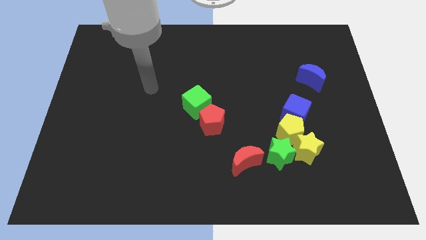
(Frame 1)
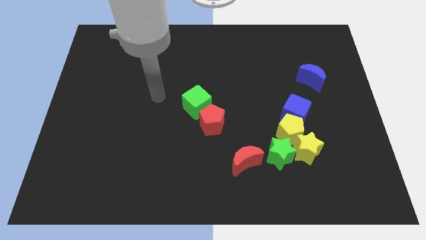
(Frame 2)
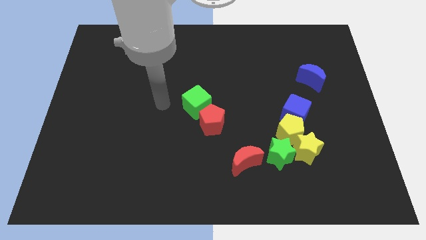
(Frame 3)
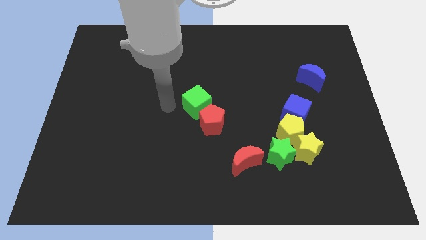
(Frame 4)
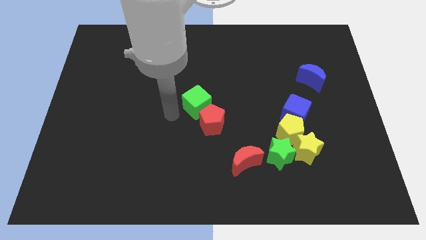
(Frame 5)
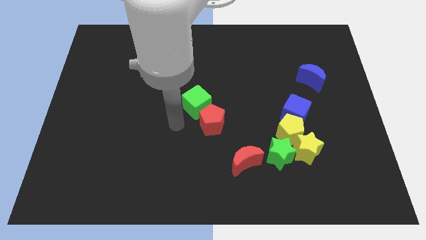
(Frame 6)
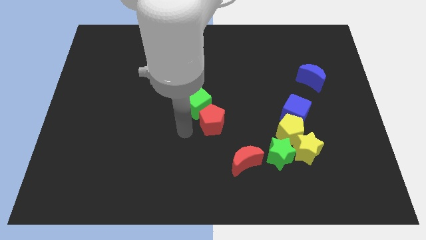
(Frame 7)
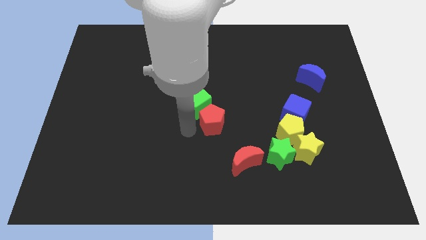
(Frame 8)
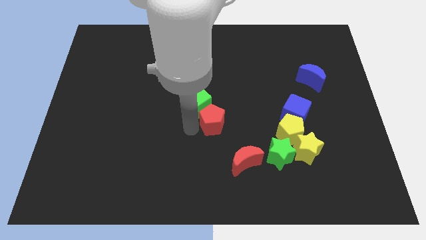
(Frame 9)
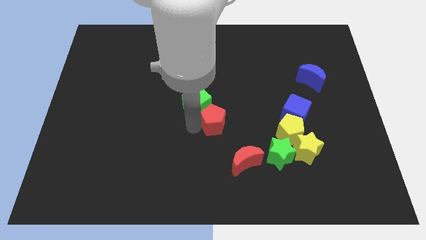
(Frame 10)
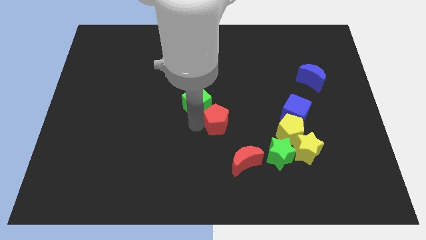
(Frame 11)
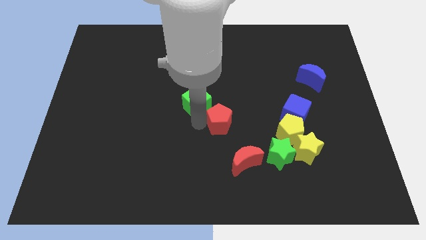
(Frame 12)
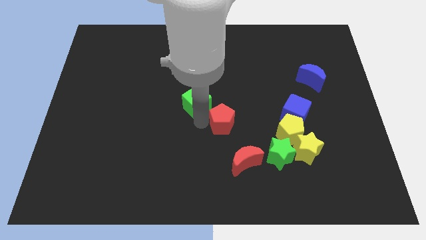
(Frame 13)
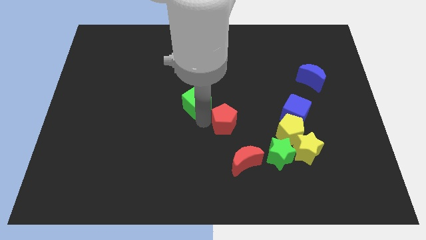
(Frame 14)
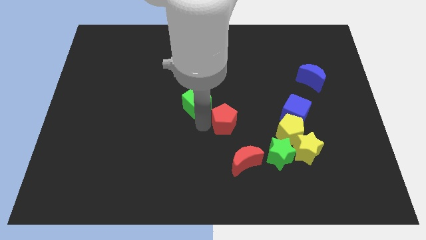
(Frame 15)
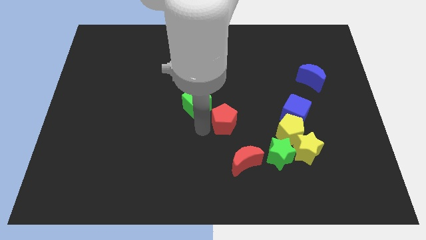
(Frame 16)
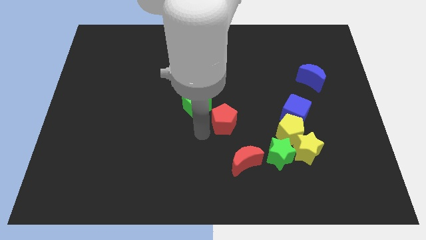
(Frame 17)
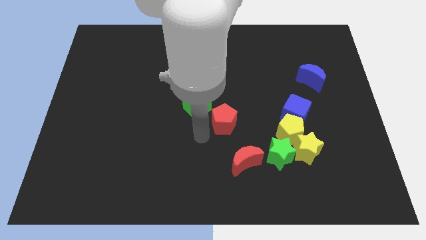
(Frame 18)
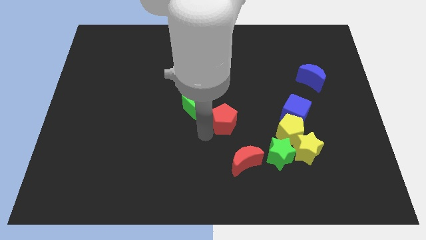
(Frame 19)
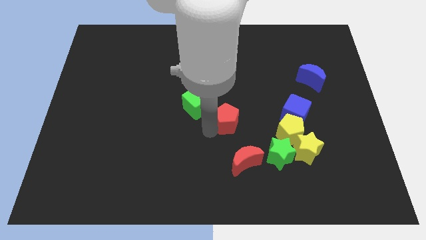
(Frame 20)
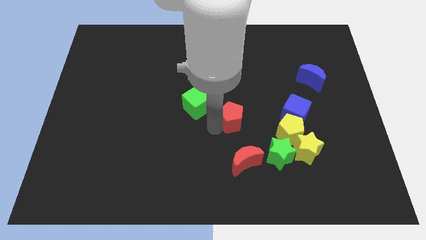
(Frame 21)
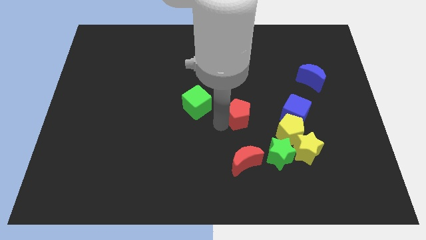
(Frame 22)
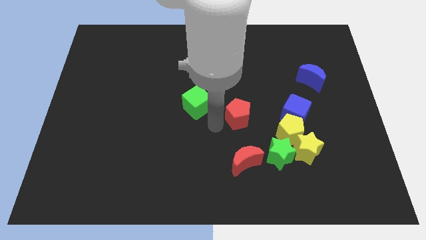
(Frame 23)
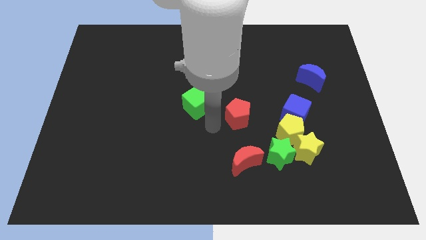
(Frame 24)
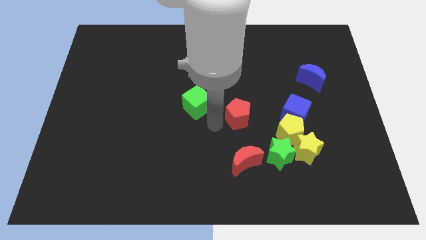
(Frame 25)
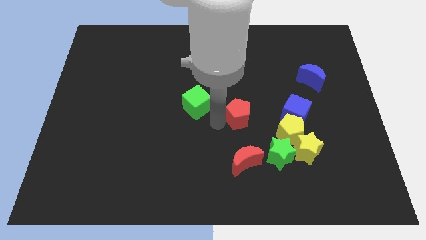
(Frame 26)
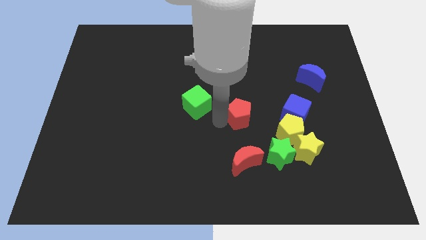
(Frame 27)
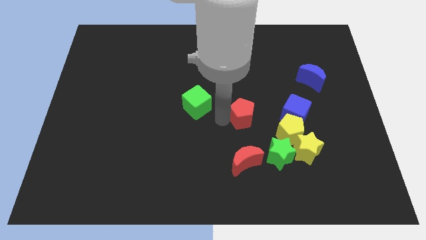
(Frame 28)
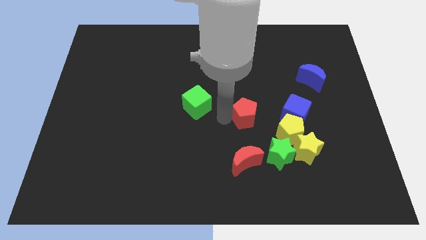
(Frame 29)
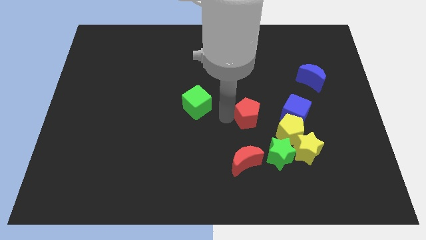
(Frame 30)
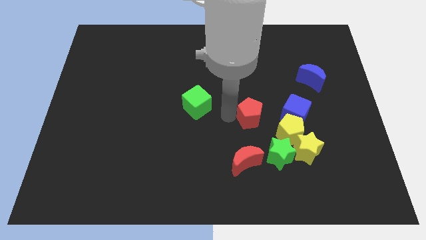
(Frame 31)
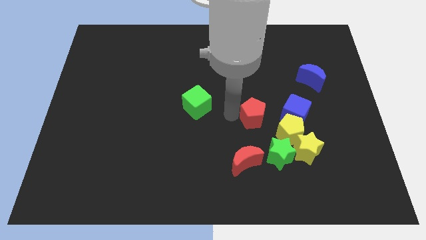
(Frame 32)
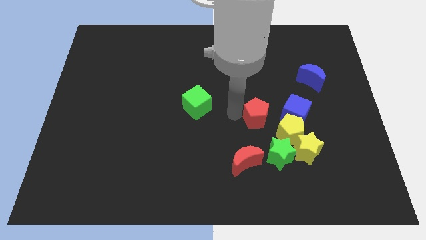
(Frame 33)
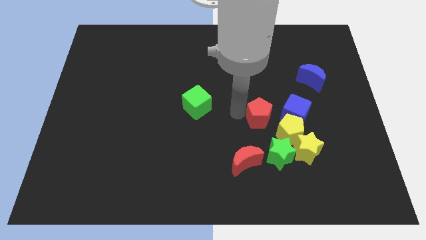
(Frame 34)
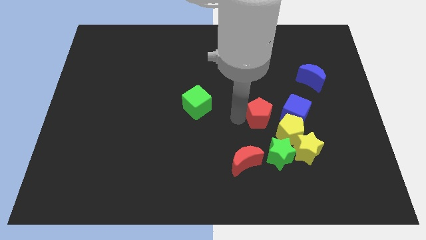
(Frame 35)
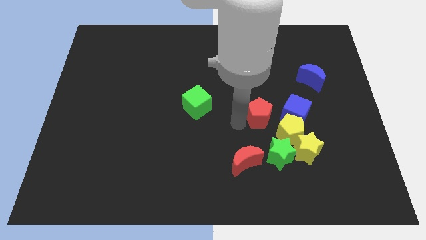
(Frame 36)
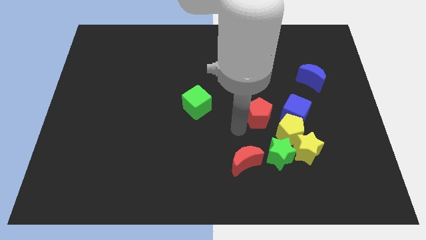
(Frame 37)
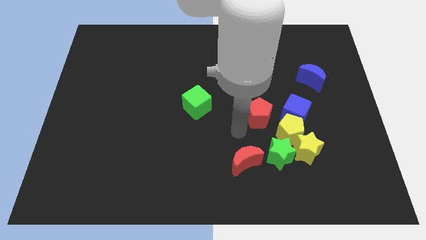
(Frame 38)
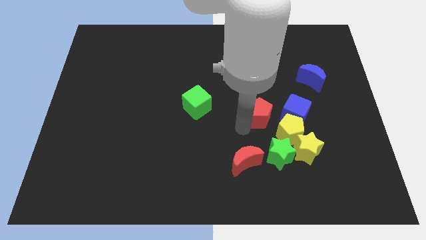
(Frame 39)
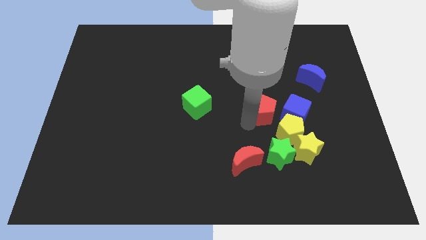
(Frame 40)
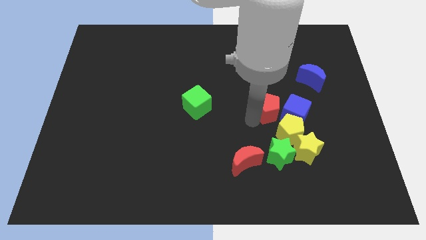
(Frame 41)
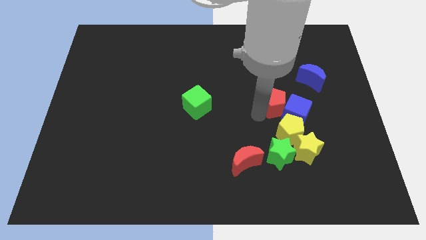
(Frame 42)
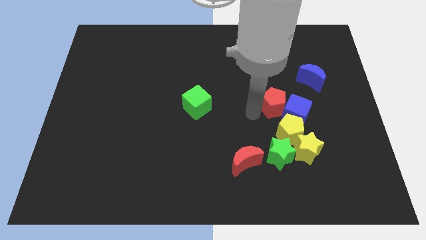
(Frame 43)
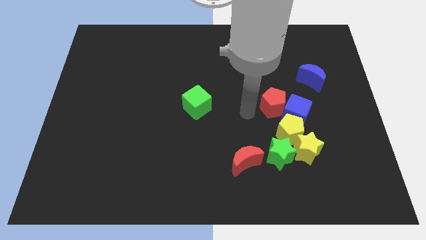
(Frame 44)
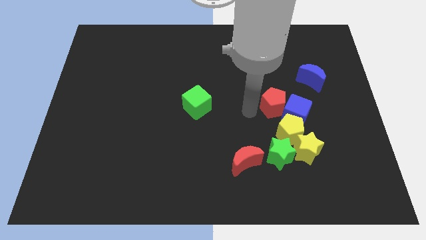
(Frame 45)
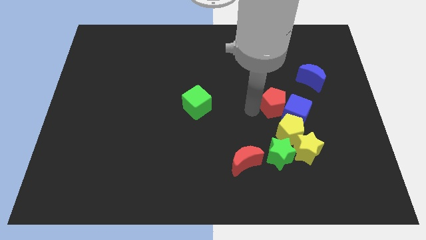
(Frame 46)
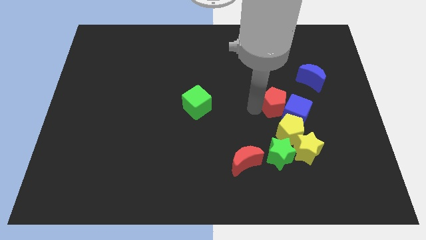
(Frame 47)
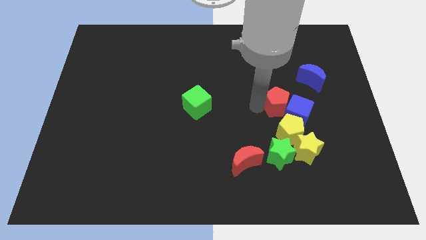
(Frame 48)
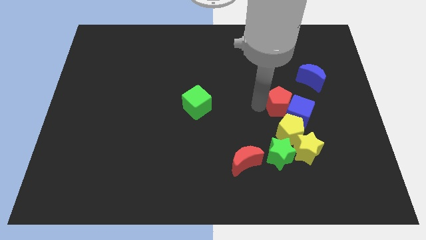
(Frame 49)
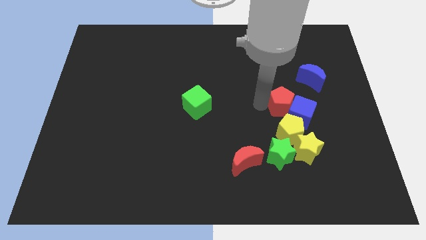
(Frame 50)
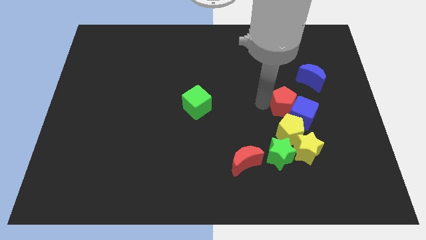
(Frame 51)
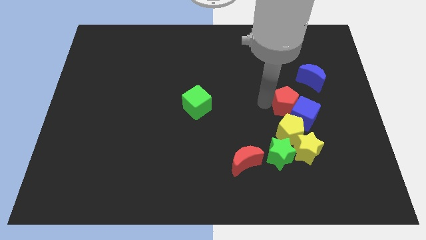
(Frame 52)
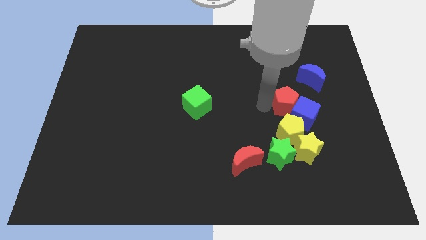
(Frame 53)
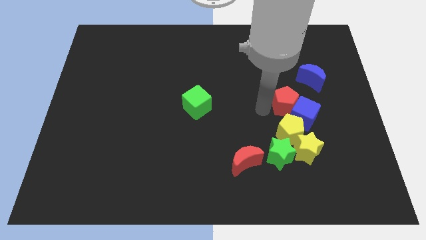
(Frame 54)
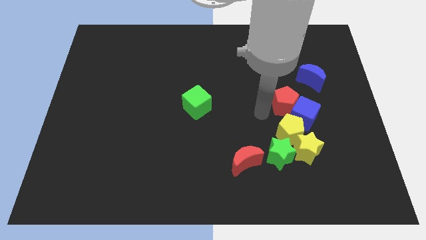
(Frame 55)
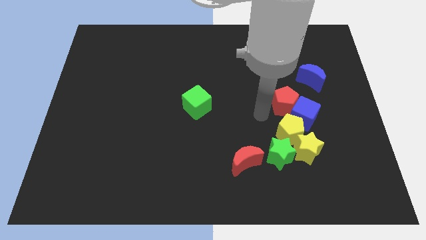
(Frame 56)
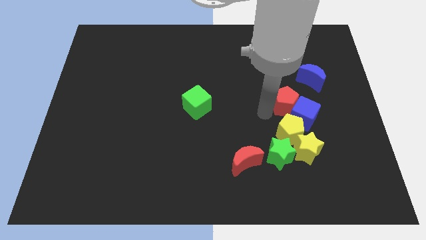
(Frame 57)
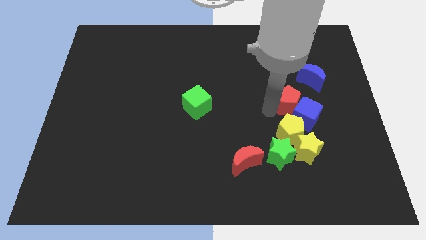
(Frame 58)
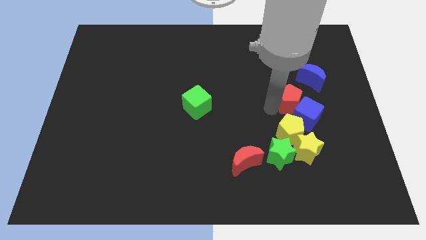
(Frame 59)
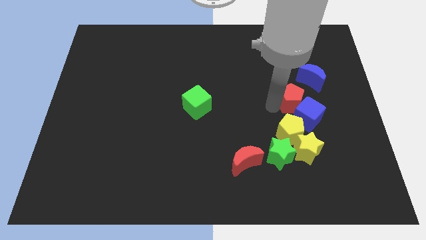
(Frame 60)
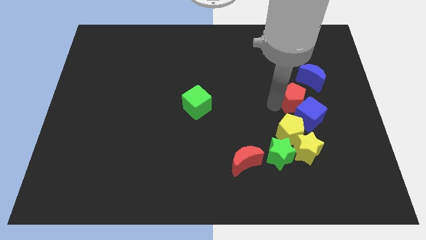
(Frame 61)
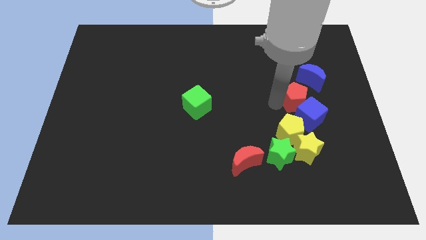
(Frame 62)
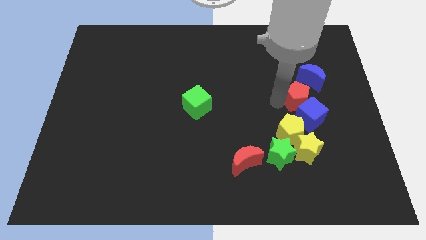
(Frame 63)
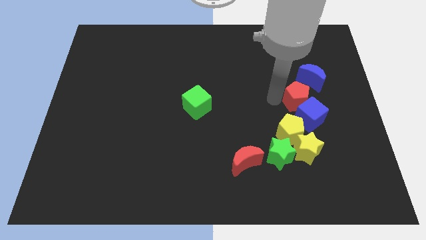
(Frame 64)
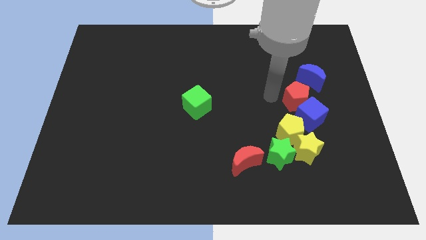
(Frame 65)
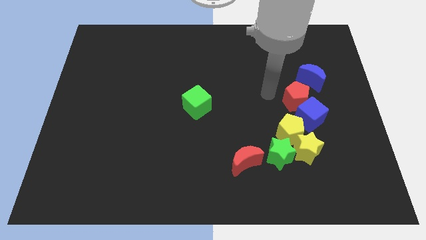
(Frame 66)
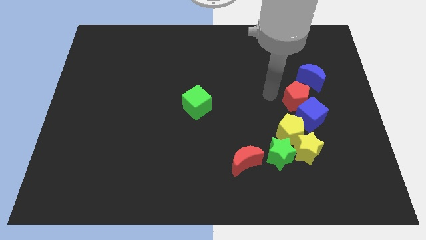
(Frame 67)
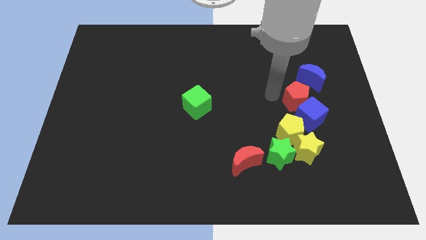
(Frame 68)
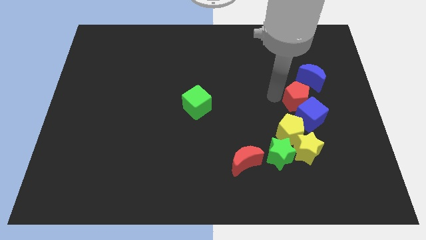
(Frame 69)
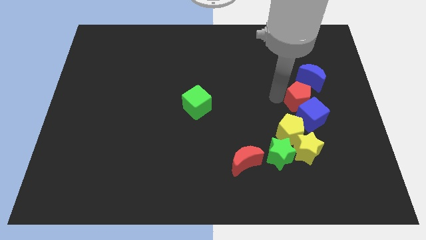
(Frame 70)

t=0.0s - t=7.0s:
put the red pentagon to the top right side of the yellow pentagon
